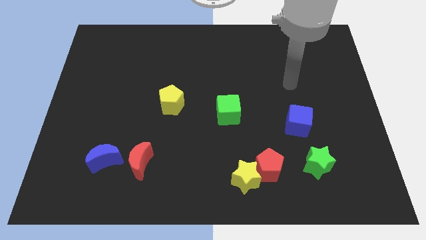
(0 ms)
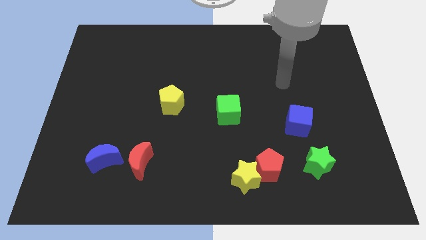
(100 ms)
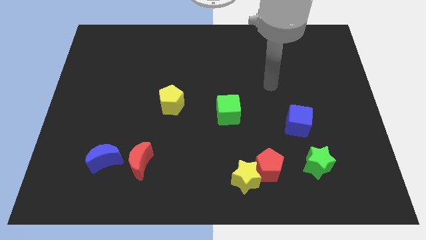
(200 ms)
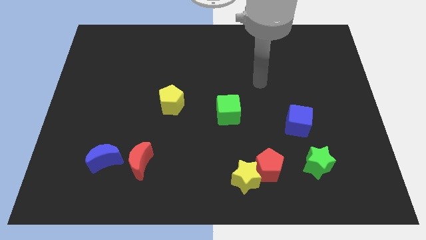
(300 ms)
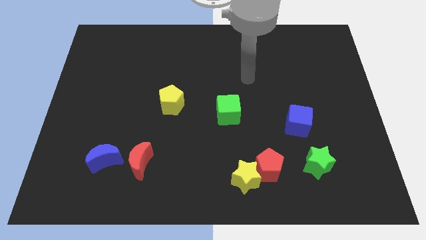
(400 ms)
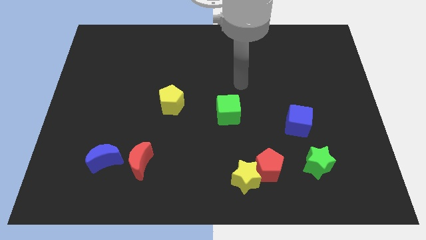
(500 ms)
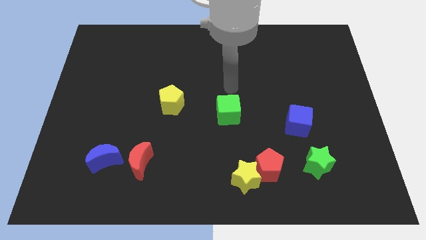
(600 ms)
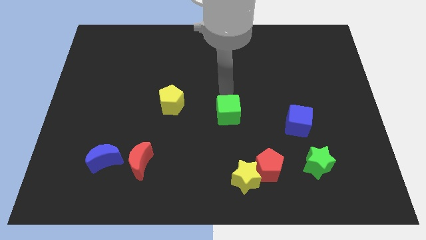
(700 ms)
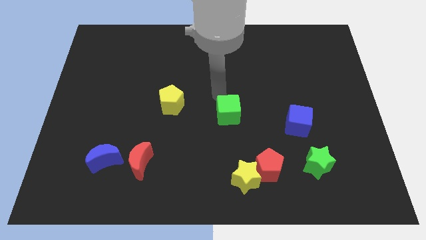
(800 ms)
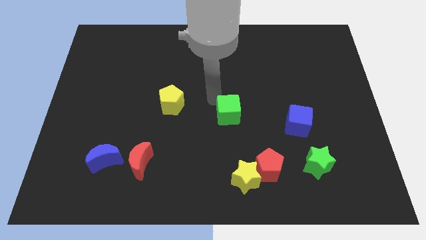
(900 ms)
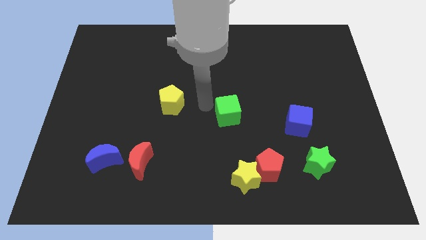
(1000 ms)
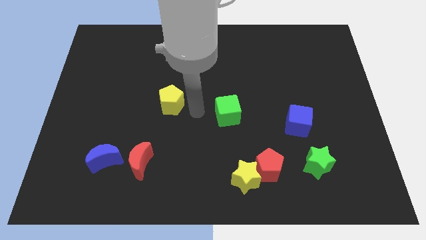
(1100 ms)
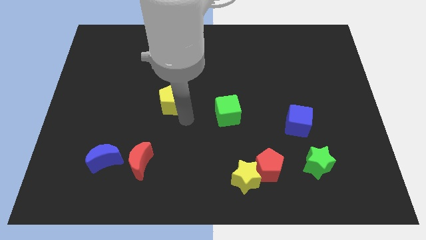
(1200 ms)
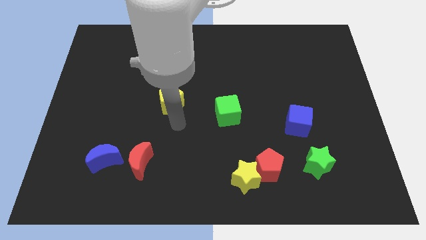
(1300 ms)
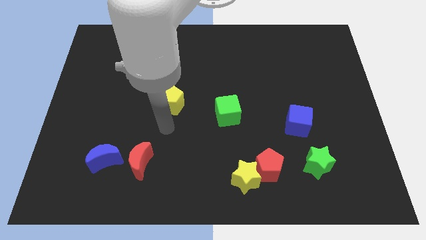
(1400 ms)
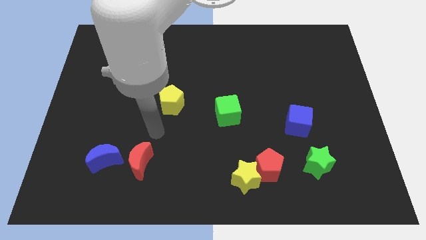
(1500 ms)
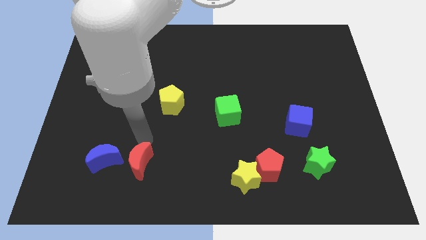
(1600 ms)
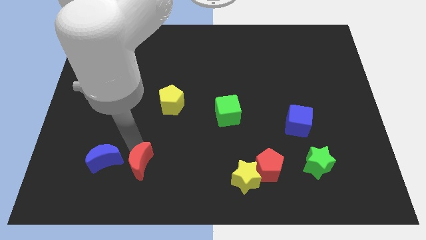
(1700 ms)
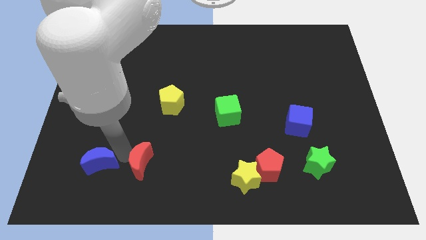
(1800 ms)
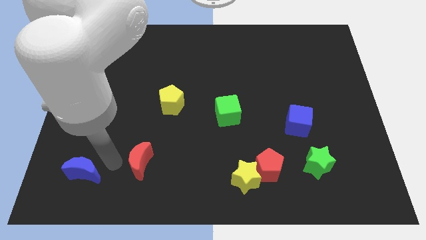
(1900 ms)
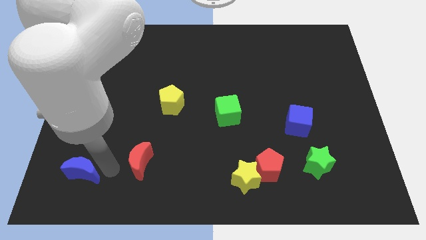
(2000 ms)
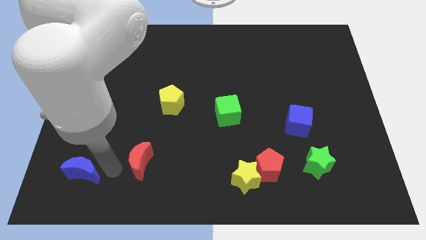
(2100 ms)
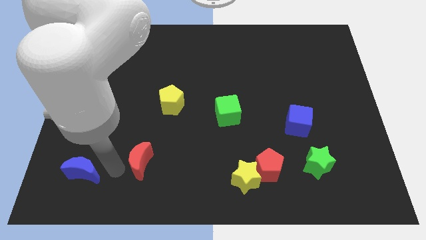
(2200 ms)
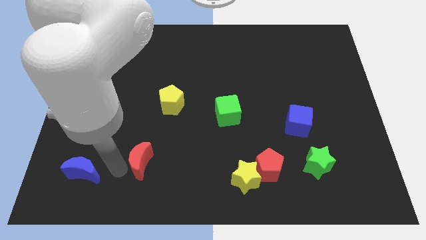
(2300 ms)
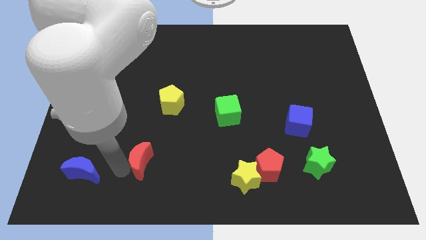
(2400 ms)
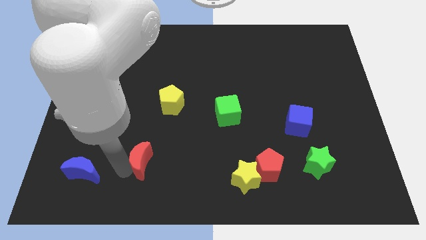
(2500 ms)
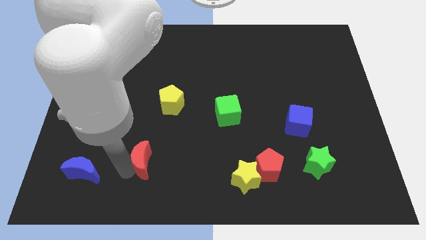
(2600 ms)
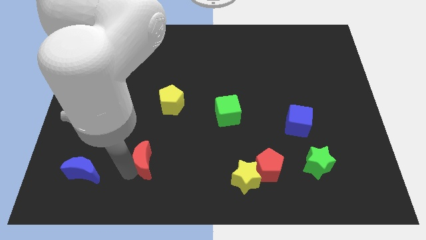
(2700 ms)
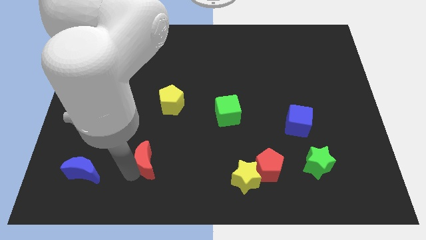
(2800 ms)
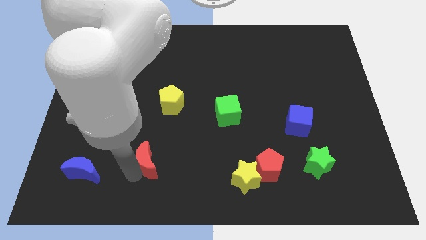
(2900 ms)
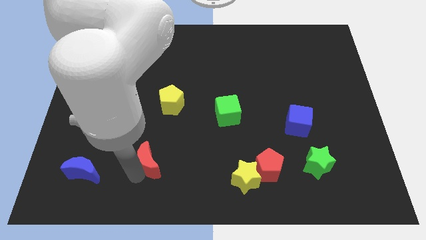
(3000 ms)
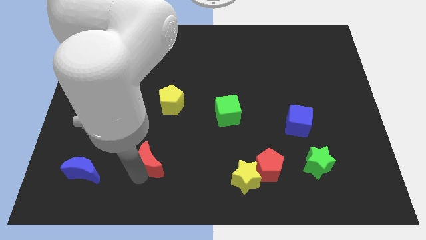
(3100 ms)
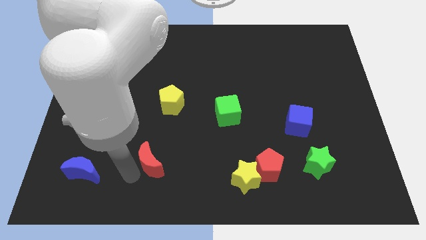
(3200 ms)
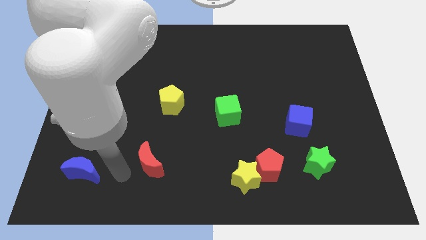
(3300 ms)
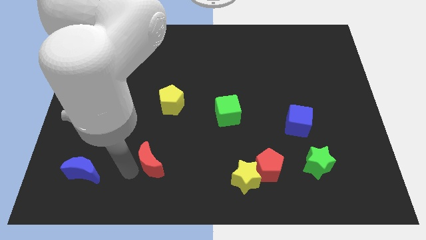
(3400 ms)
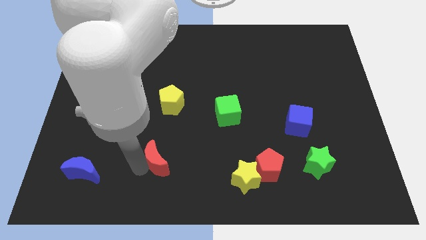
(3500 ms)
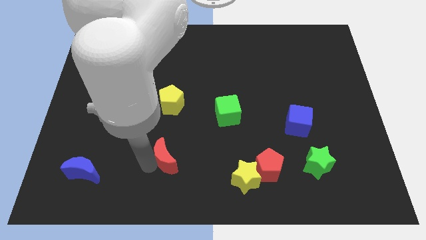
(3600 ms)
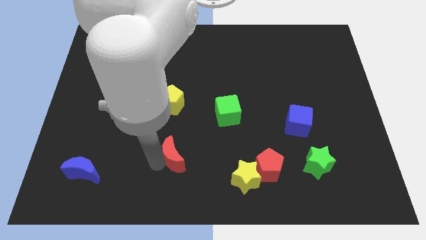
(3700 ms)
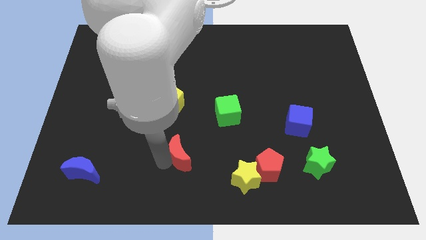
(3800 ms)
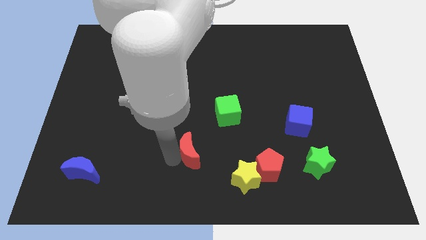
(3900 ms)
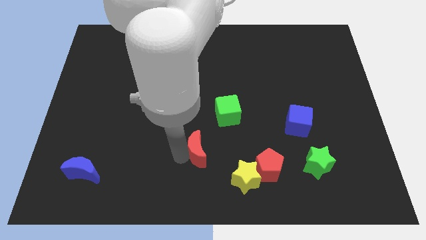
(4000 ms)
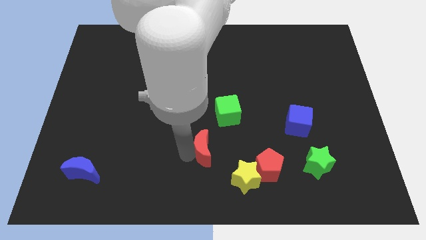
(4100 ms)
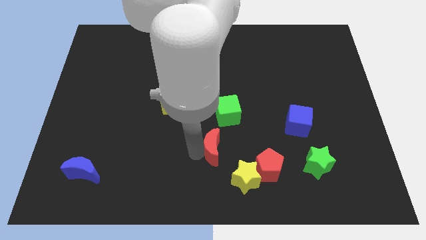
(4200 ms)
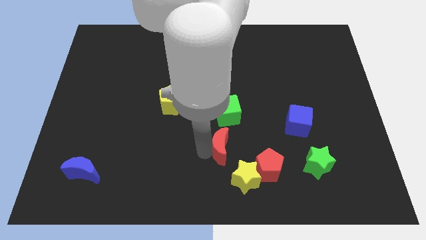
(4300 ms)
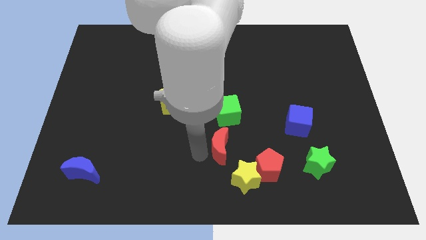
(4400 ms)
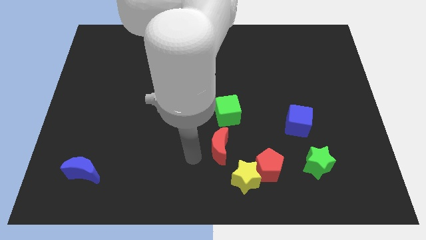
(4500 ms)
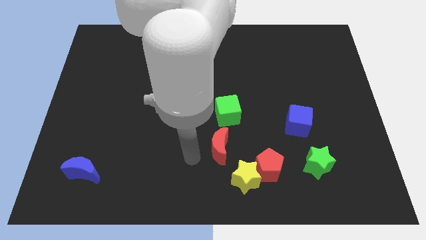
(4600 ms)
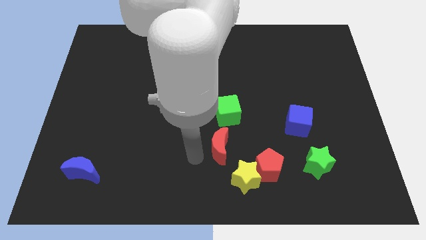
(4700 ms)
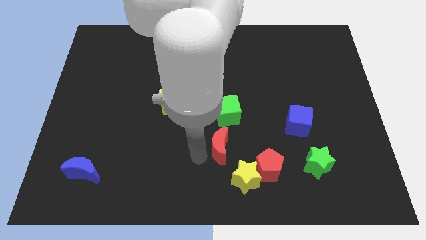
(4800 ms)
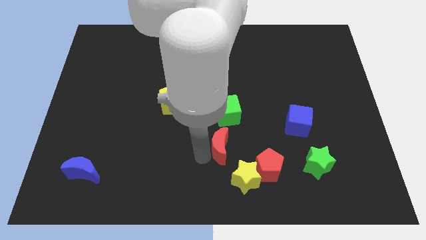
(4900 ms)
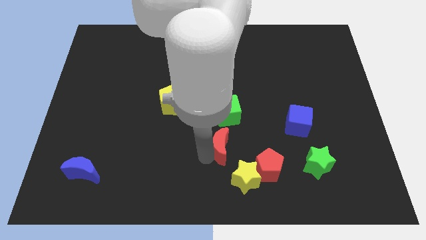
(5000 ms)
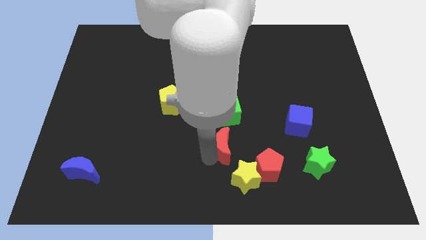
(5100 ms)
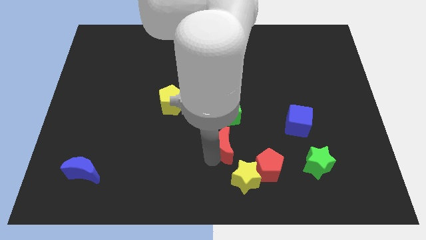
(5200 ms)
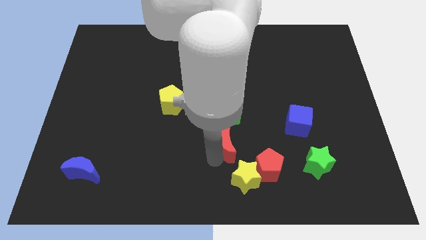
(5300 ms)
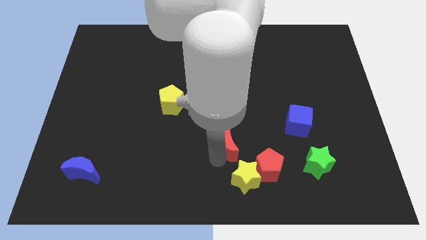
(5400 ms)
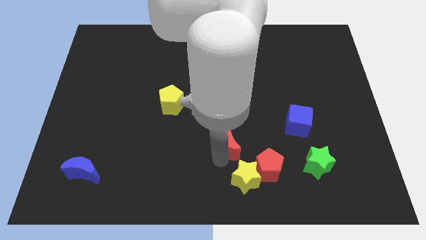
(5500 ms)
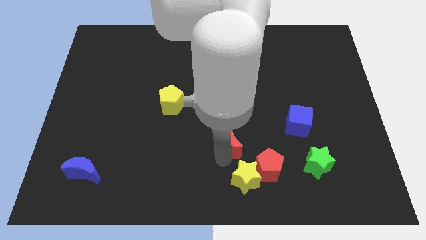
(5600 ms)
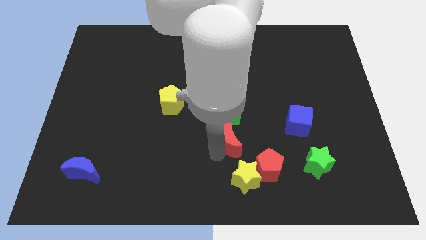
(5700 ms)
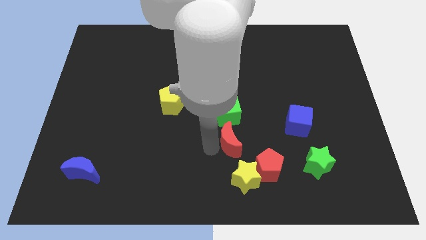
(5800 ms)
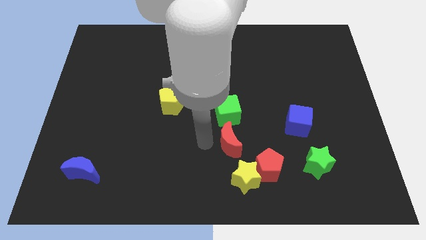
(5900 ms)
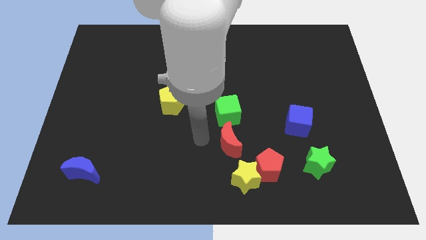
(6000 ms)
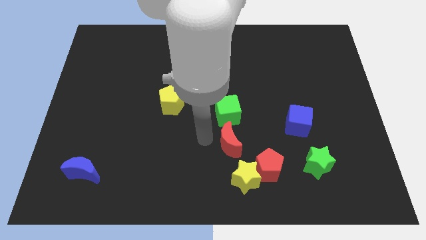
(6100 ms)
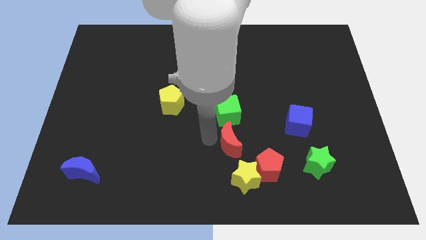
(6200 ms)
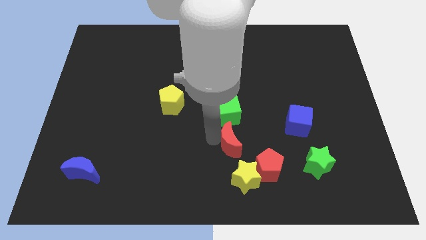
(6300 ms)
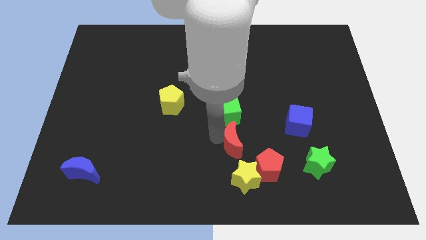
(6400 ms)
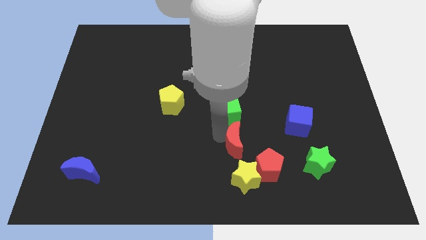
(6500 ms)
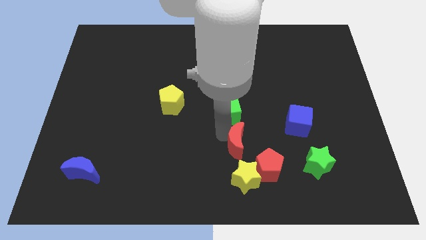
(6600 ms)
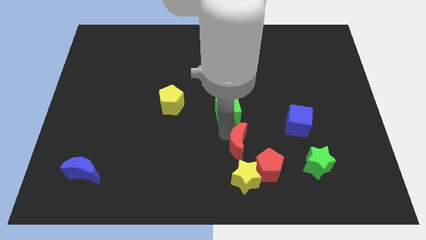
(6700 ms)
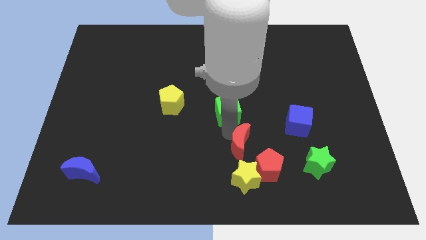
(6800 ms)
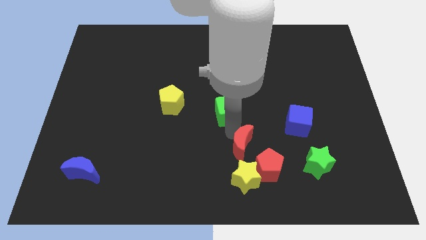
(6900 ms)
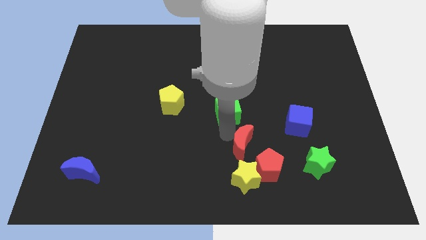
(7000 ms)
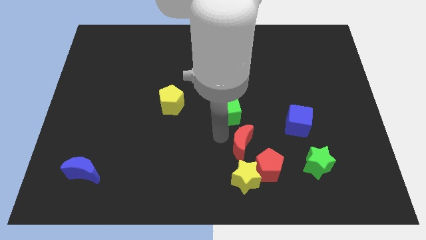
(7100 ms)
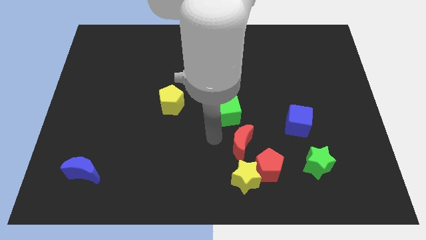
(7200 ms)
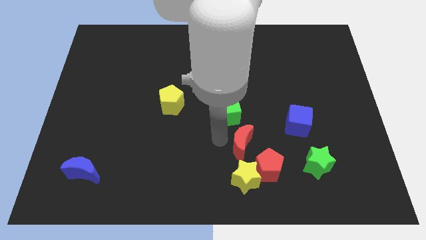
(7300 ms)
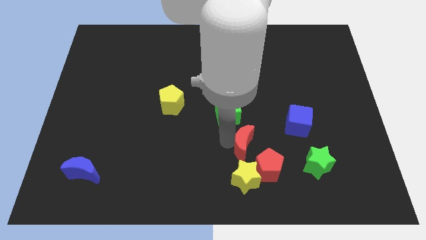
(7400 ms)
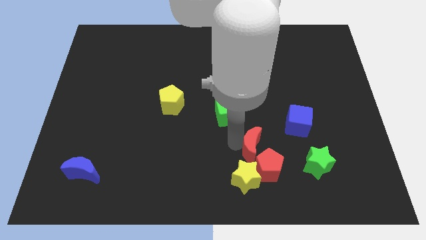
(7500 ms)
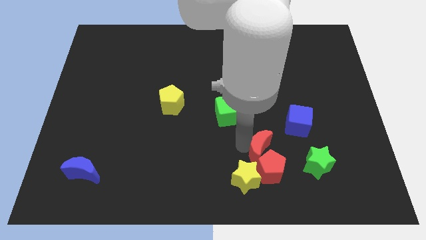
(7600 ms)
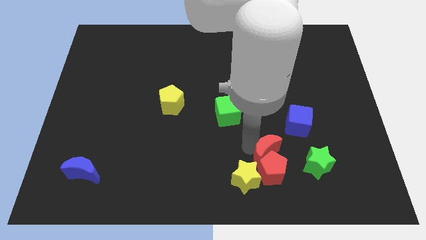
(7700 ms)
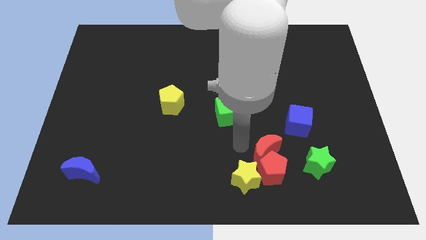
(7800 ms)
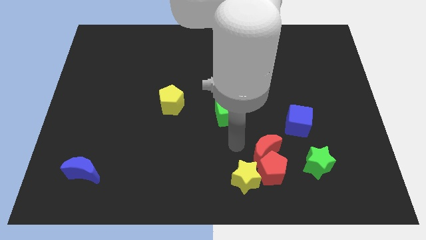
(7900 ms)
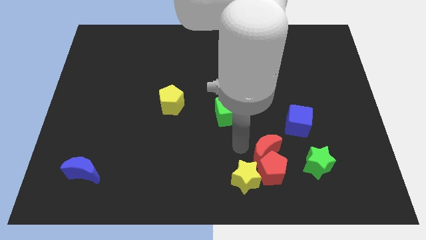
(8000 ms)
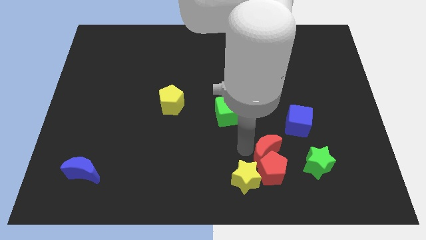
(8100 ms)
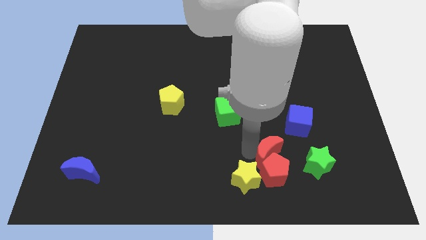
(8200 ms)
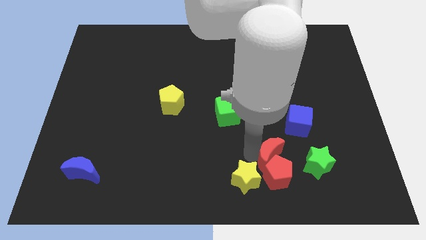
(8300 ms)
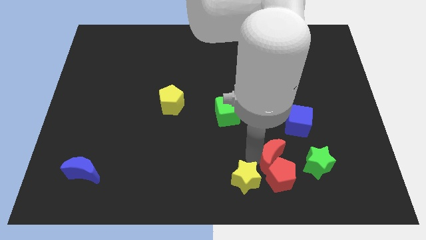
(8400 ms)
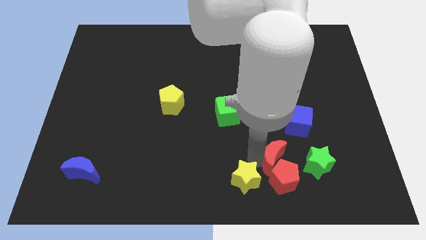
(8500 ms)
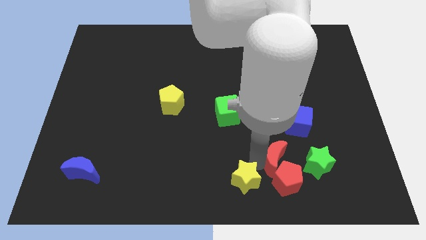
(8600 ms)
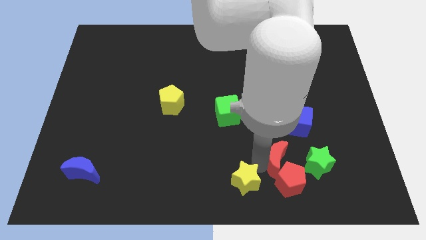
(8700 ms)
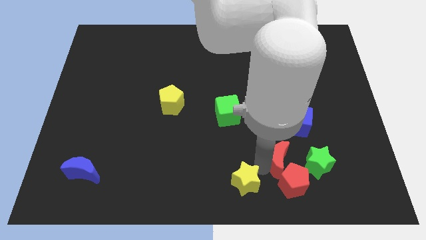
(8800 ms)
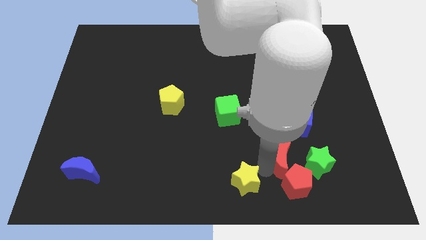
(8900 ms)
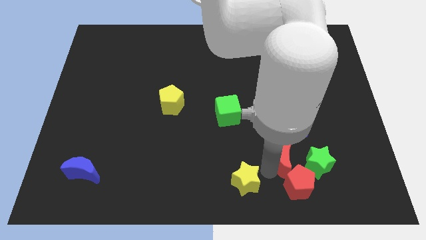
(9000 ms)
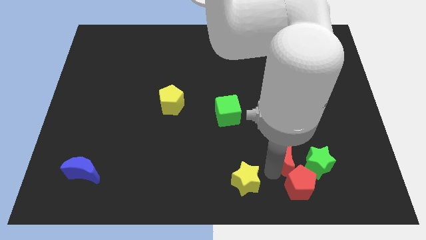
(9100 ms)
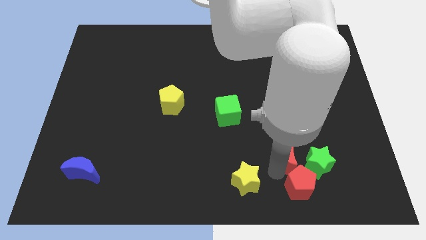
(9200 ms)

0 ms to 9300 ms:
put the red moon towards the green star
